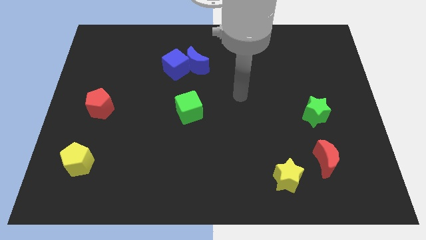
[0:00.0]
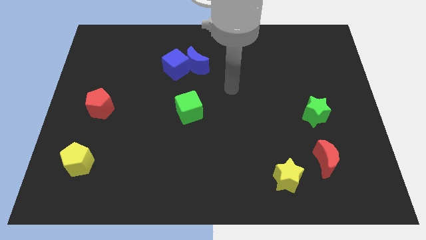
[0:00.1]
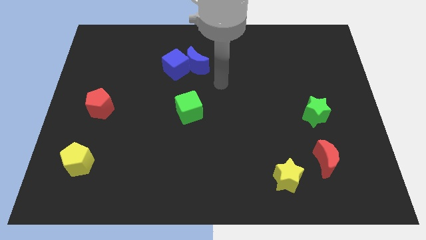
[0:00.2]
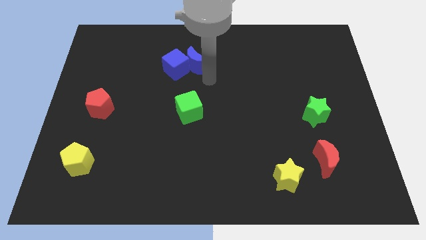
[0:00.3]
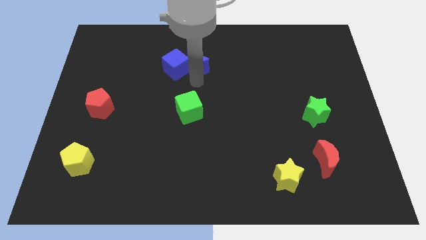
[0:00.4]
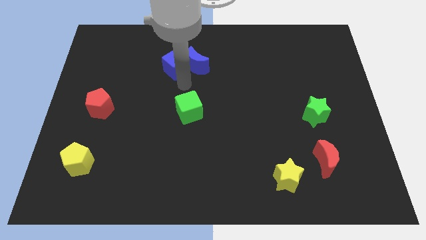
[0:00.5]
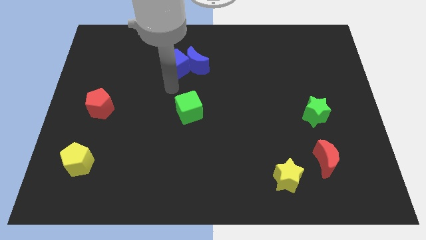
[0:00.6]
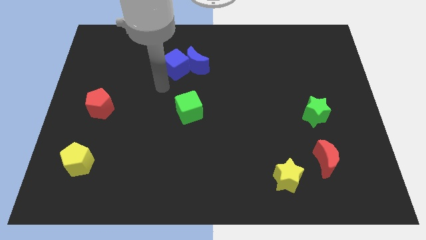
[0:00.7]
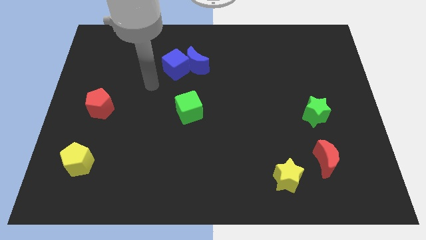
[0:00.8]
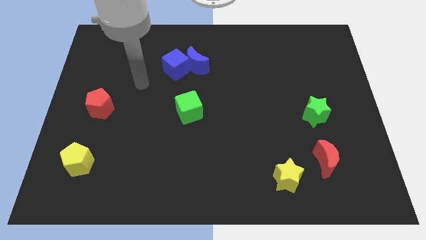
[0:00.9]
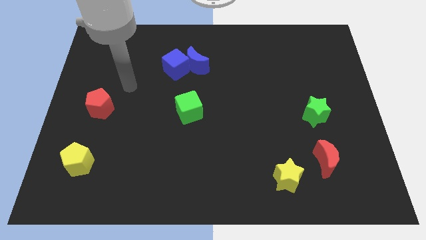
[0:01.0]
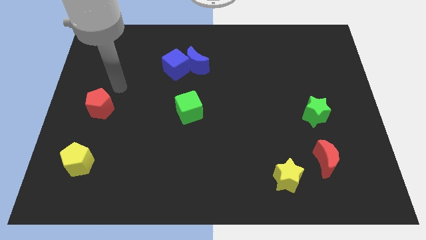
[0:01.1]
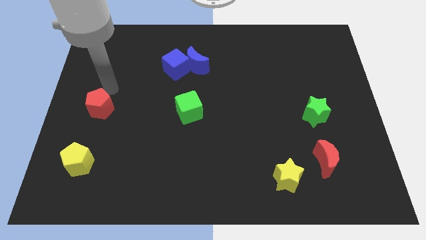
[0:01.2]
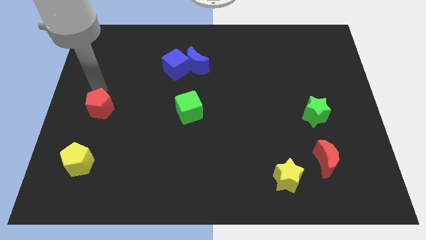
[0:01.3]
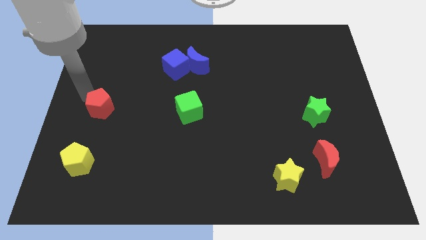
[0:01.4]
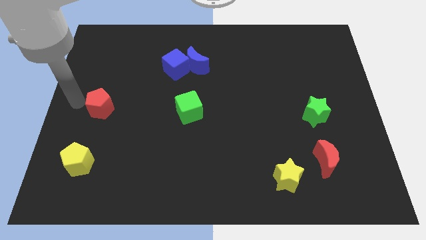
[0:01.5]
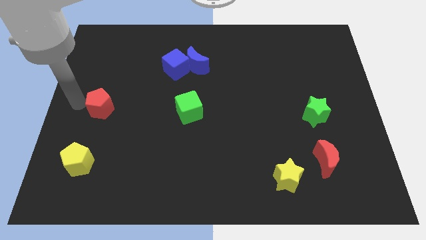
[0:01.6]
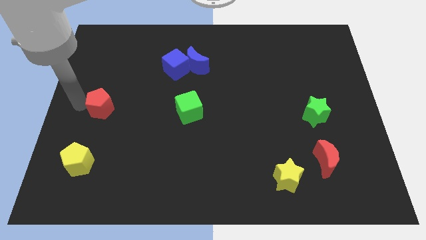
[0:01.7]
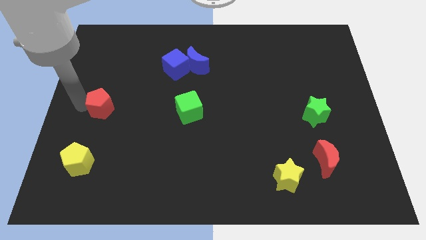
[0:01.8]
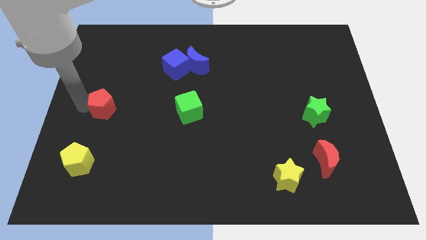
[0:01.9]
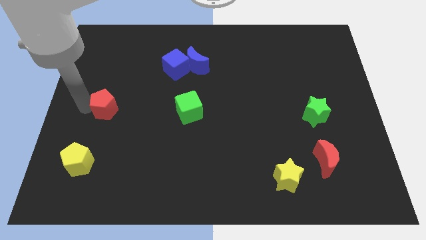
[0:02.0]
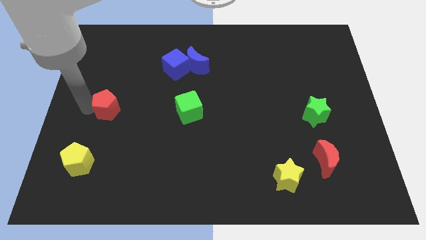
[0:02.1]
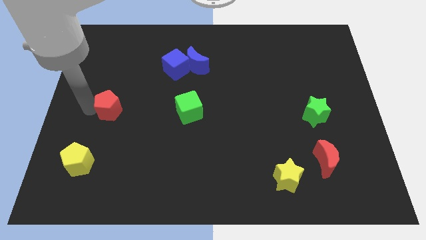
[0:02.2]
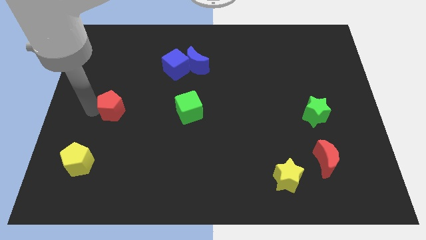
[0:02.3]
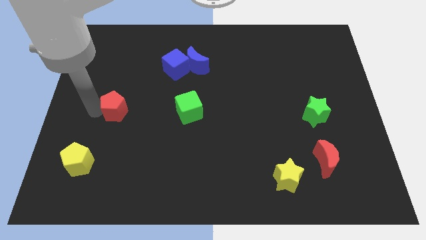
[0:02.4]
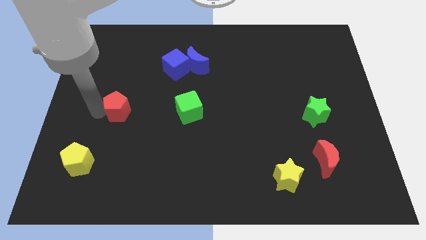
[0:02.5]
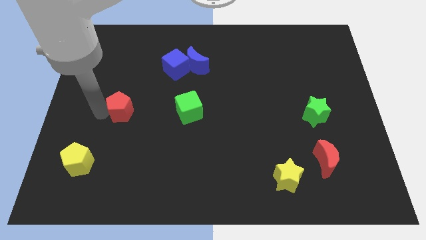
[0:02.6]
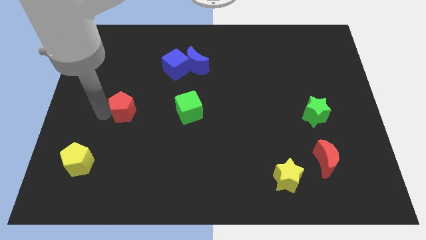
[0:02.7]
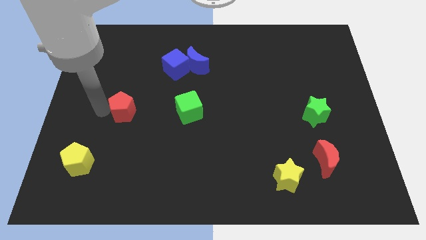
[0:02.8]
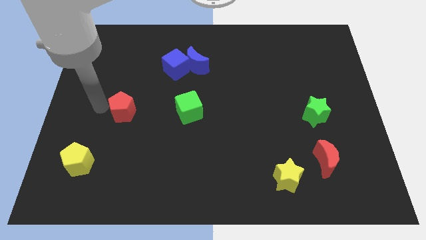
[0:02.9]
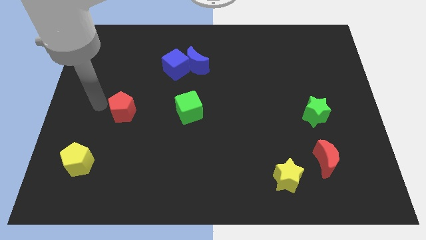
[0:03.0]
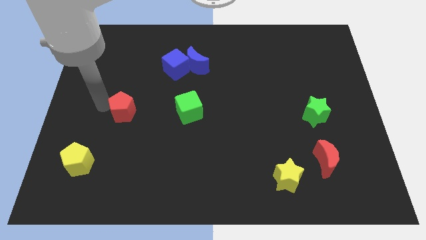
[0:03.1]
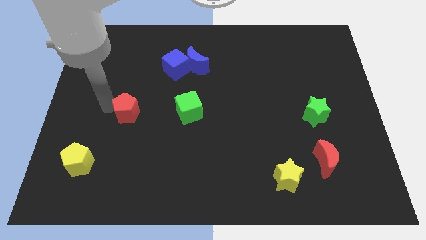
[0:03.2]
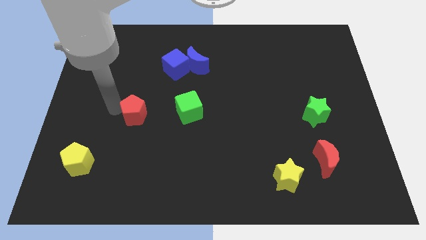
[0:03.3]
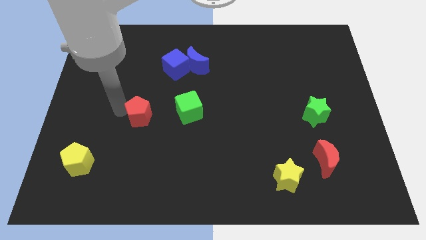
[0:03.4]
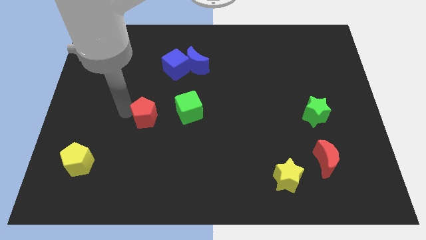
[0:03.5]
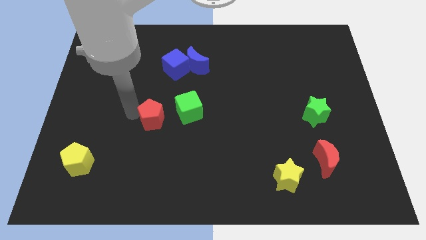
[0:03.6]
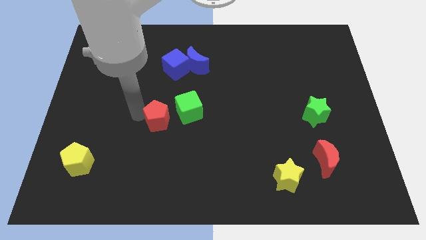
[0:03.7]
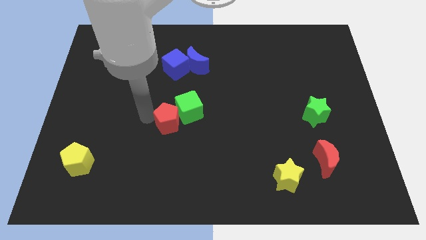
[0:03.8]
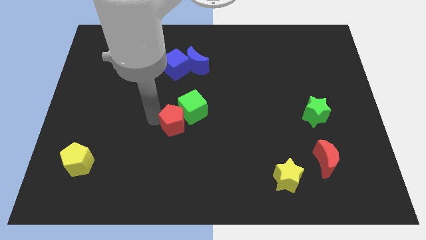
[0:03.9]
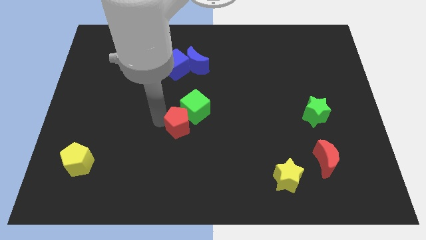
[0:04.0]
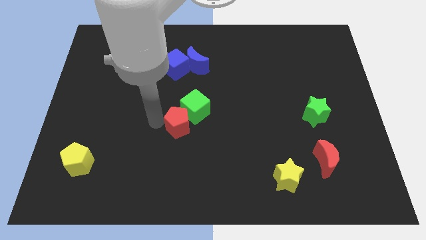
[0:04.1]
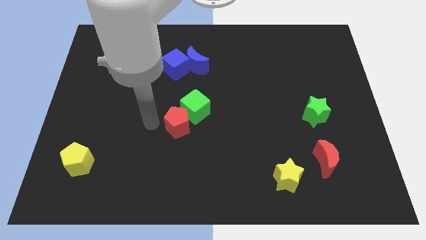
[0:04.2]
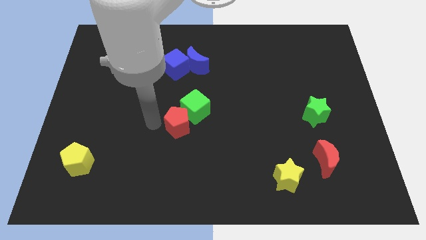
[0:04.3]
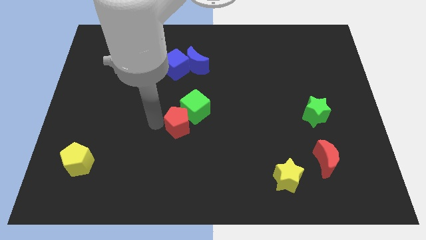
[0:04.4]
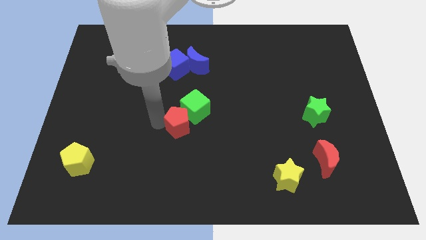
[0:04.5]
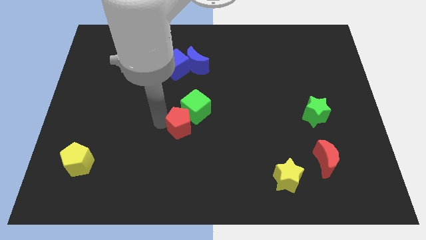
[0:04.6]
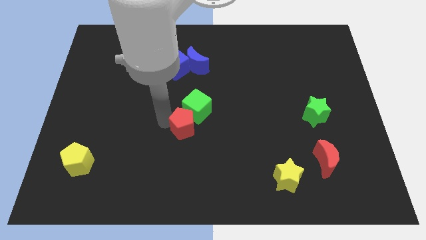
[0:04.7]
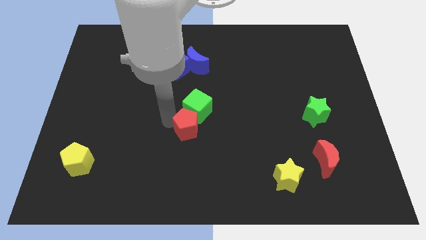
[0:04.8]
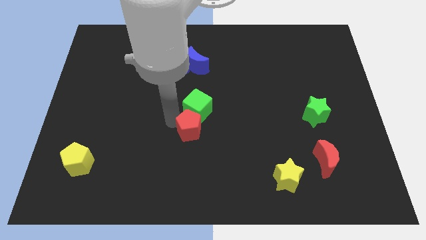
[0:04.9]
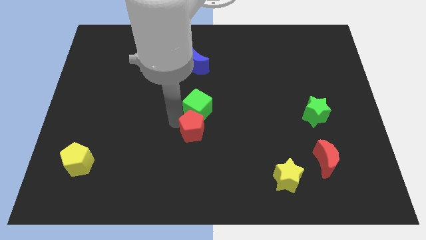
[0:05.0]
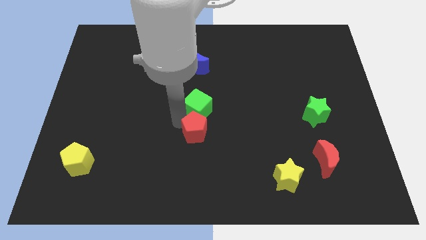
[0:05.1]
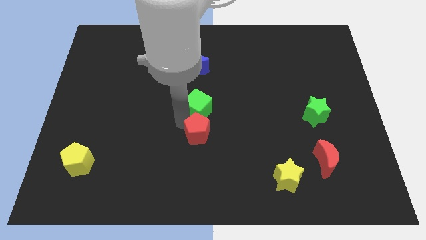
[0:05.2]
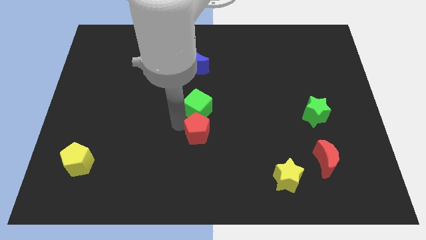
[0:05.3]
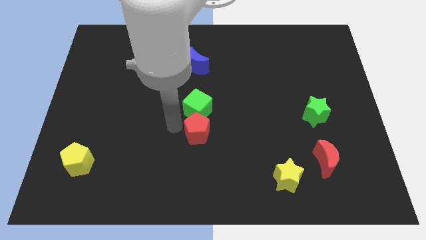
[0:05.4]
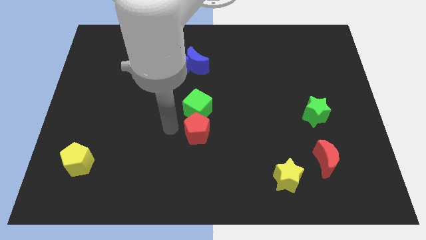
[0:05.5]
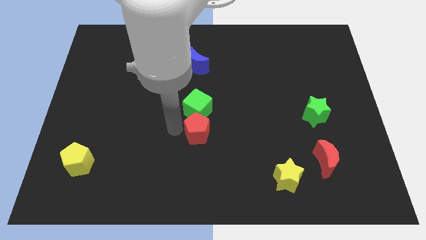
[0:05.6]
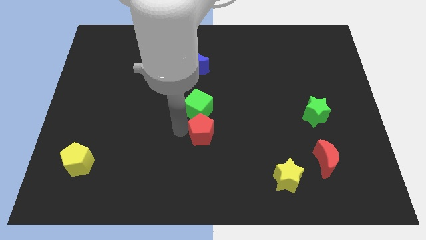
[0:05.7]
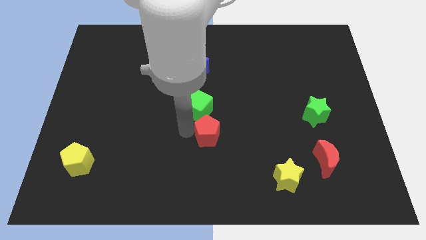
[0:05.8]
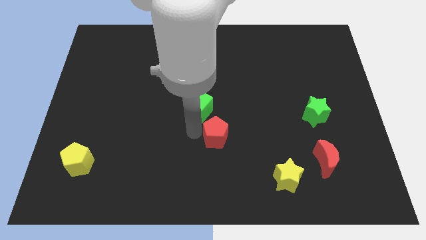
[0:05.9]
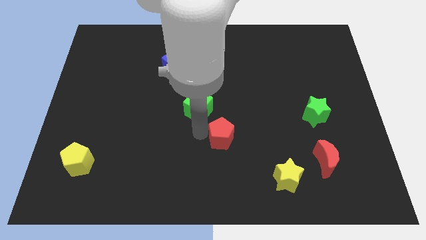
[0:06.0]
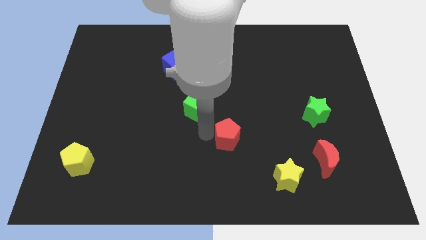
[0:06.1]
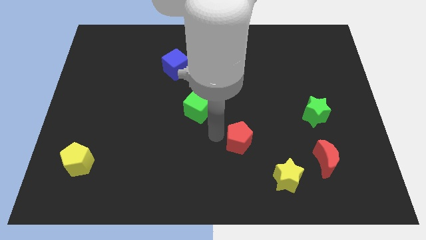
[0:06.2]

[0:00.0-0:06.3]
put the red pentagon to the top left side of the yellow star

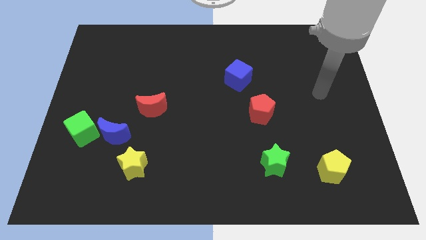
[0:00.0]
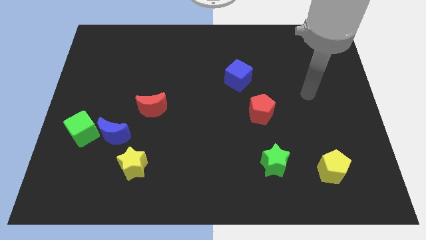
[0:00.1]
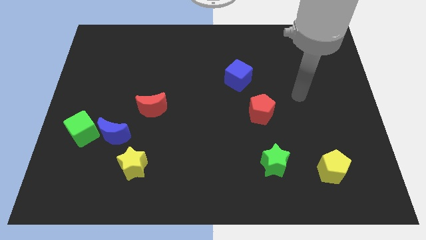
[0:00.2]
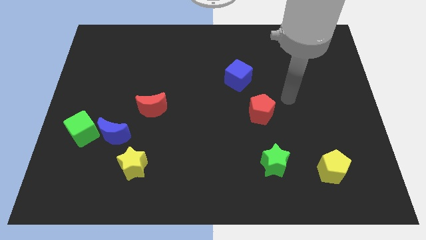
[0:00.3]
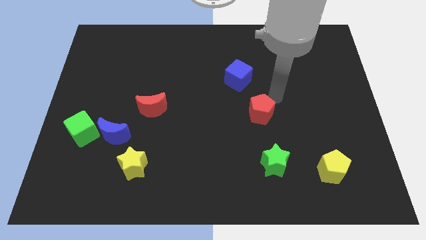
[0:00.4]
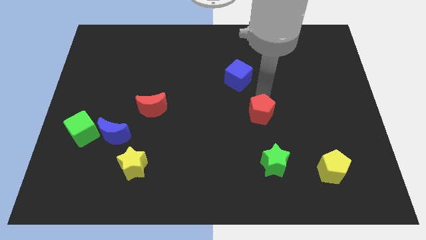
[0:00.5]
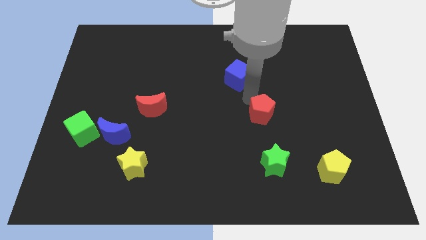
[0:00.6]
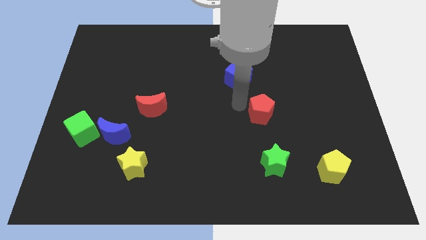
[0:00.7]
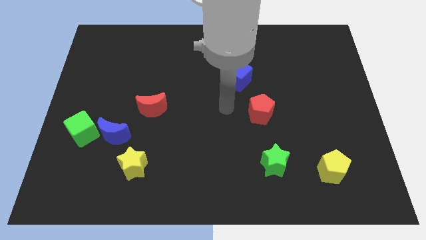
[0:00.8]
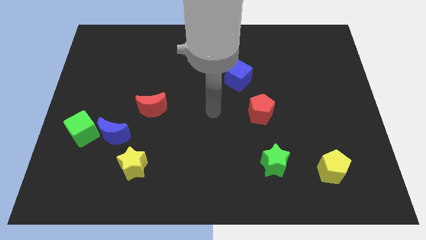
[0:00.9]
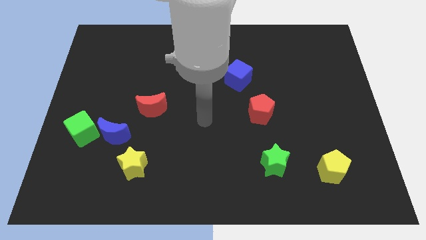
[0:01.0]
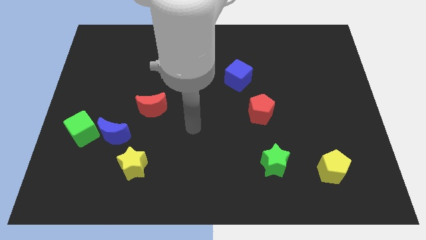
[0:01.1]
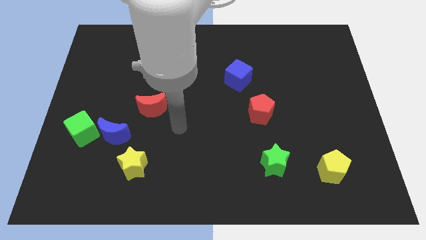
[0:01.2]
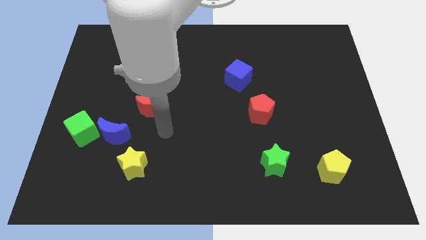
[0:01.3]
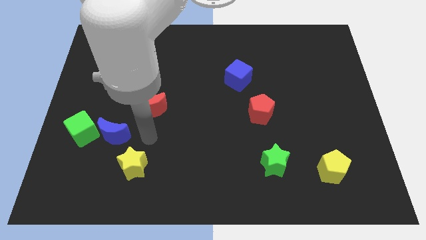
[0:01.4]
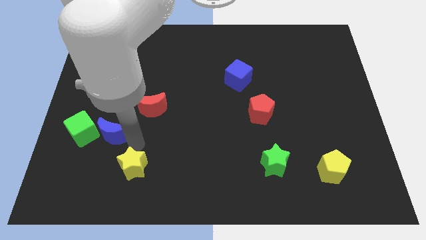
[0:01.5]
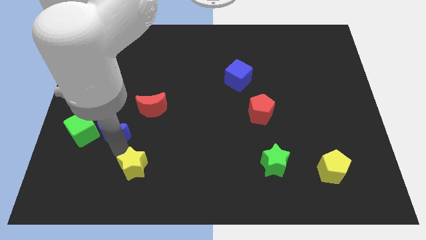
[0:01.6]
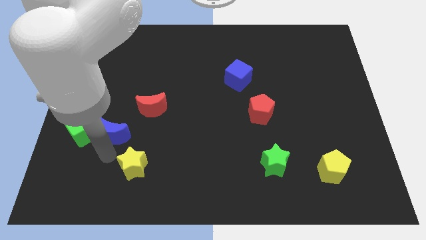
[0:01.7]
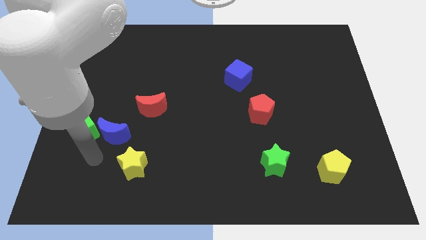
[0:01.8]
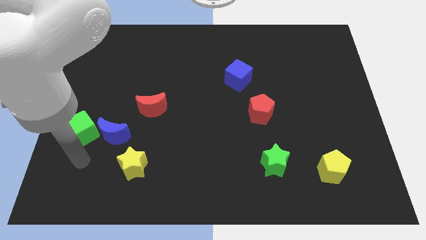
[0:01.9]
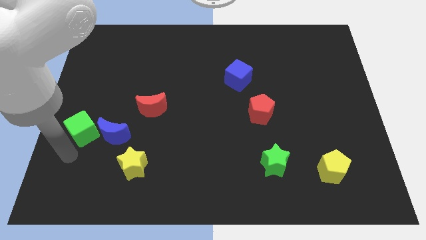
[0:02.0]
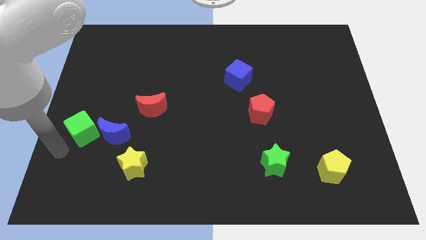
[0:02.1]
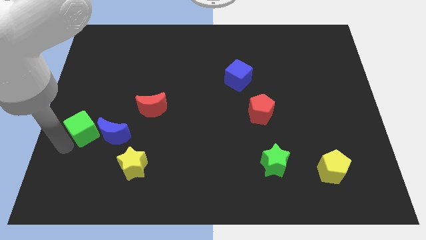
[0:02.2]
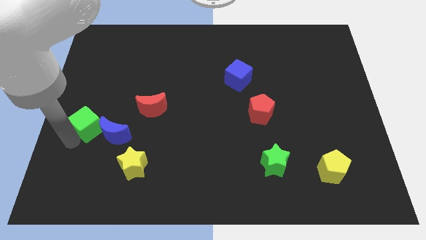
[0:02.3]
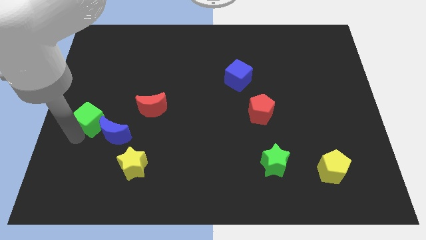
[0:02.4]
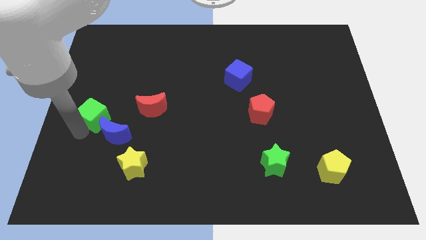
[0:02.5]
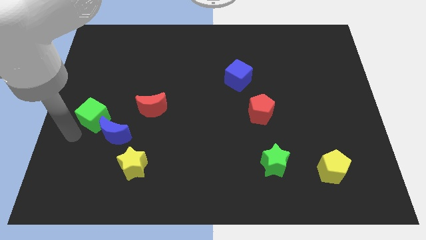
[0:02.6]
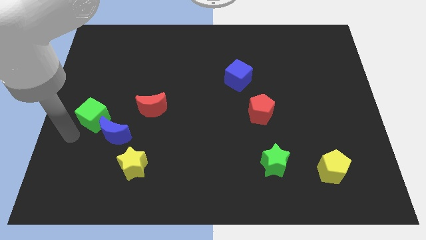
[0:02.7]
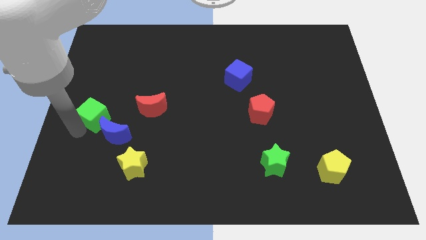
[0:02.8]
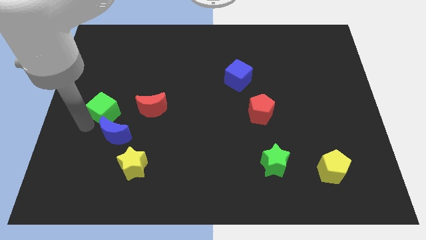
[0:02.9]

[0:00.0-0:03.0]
move the green cube to the top side of the blue moon
